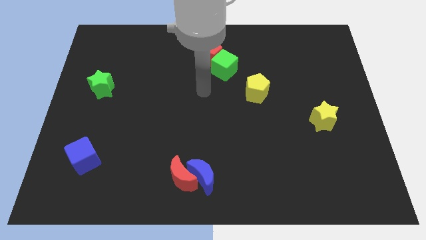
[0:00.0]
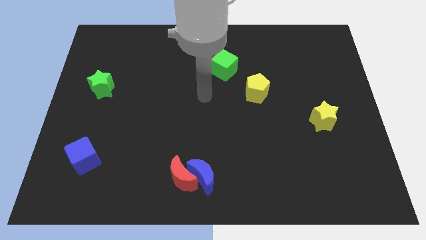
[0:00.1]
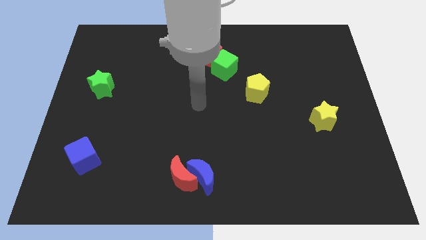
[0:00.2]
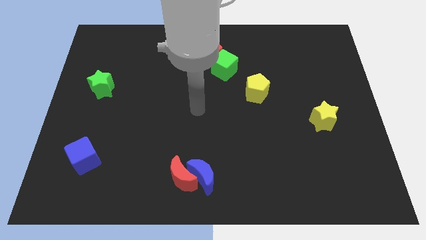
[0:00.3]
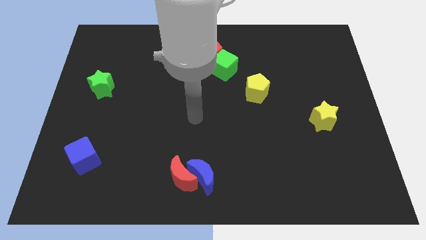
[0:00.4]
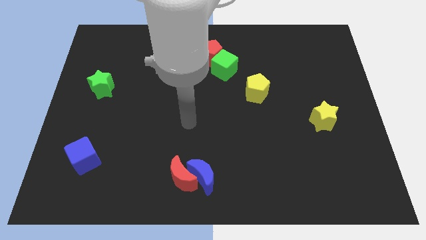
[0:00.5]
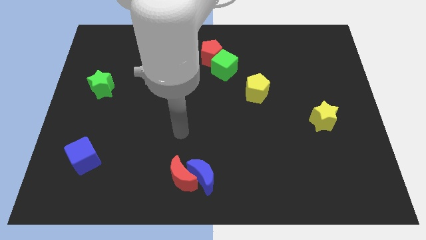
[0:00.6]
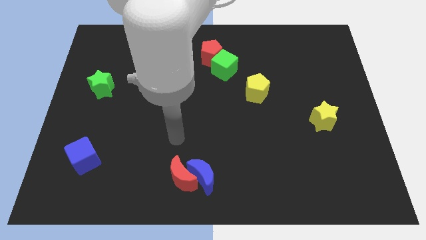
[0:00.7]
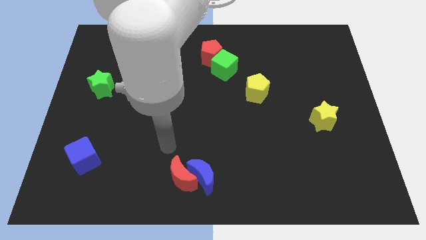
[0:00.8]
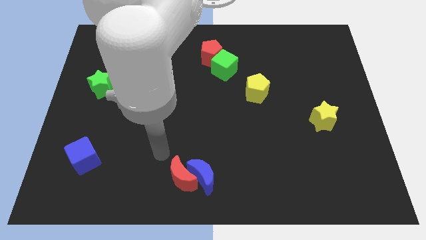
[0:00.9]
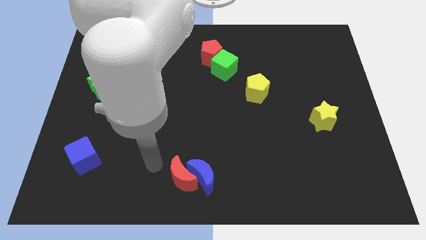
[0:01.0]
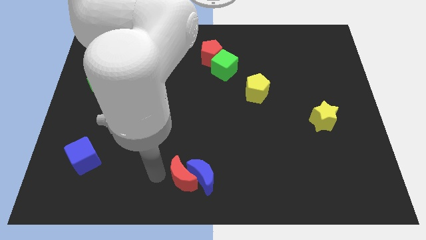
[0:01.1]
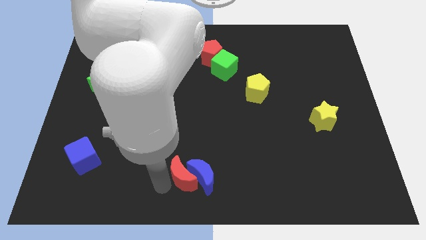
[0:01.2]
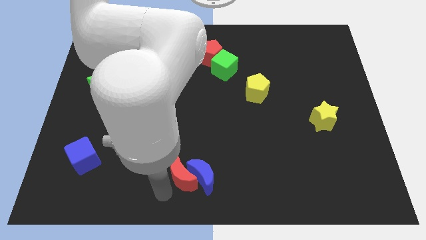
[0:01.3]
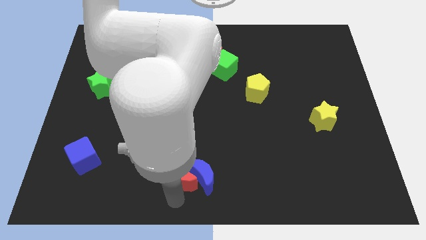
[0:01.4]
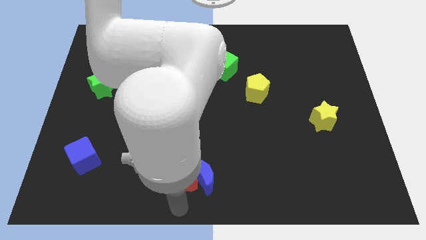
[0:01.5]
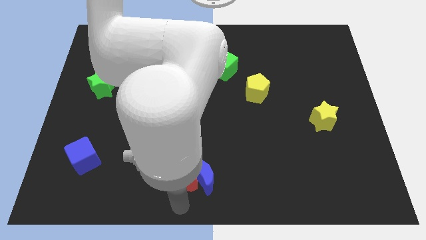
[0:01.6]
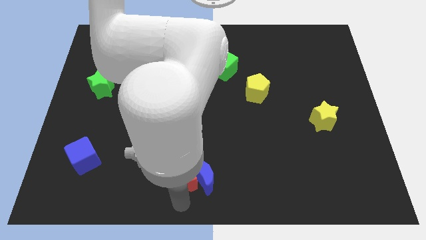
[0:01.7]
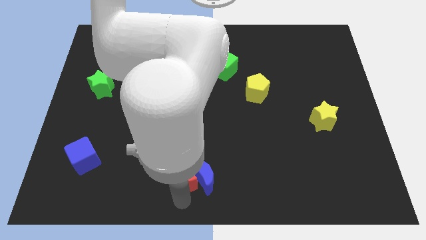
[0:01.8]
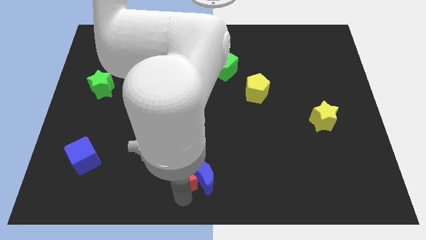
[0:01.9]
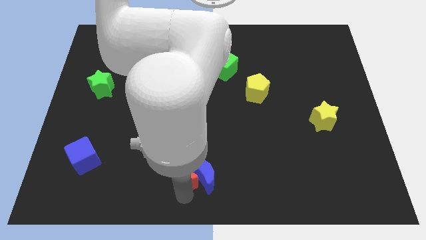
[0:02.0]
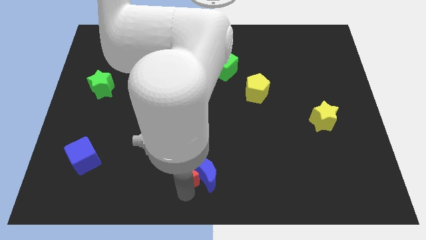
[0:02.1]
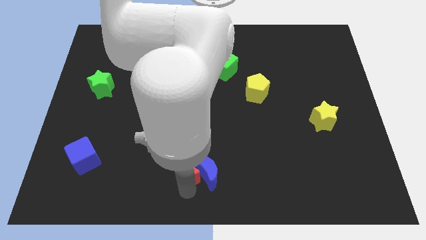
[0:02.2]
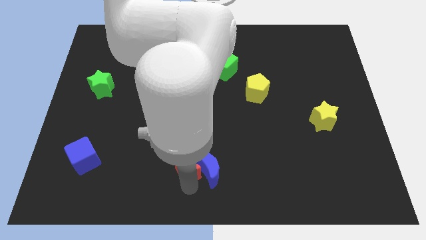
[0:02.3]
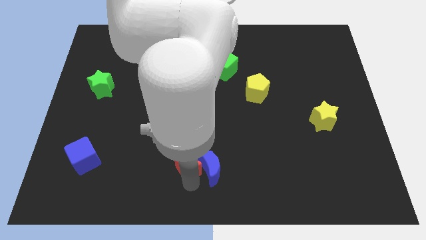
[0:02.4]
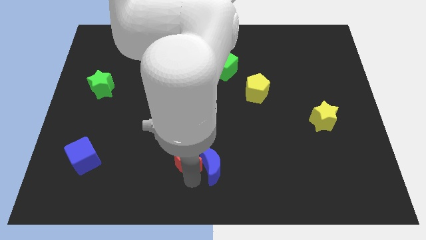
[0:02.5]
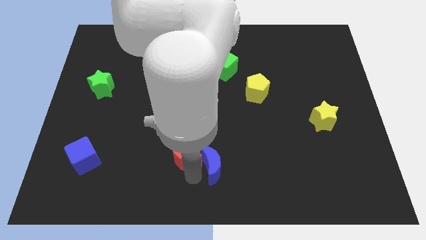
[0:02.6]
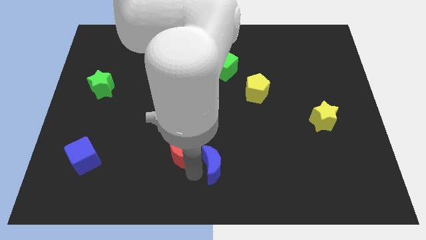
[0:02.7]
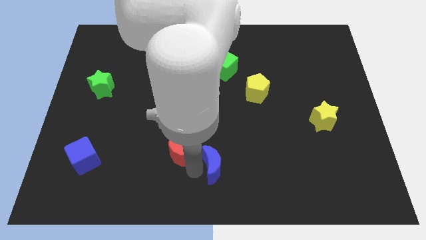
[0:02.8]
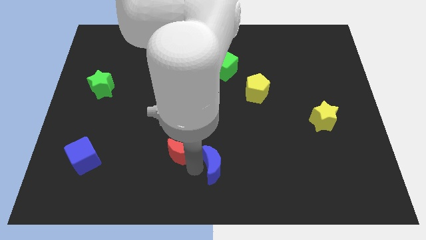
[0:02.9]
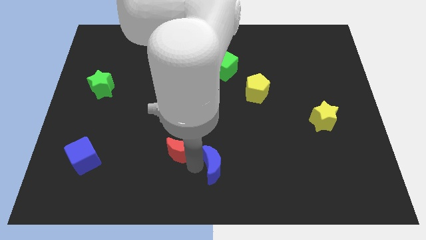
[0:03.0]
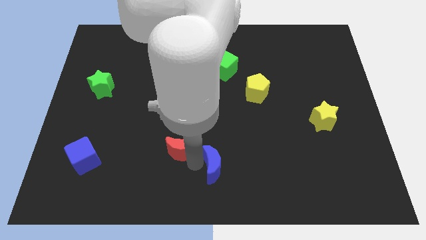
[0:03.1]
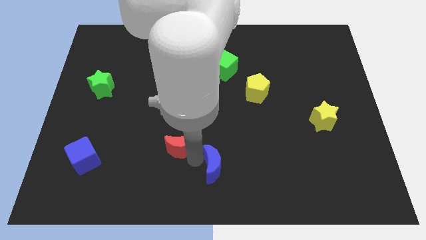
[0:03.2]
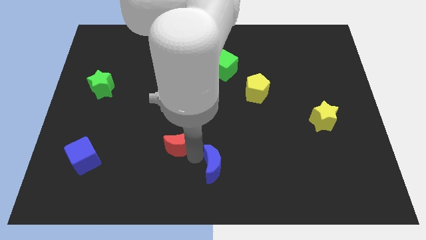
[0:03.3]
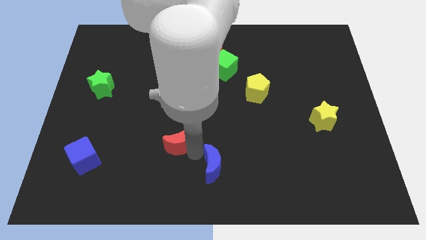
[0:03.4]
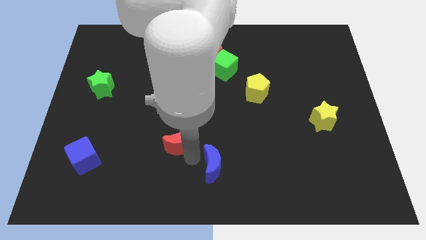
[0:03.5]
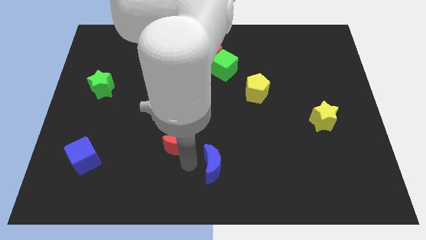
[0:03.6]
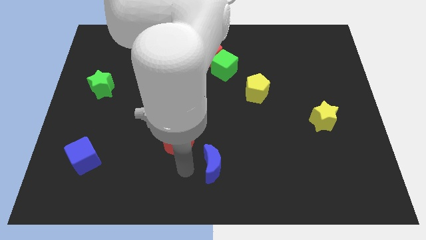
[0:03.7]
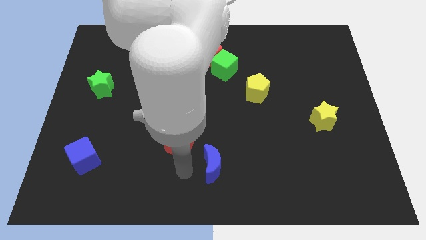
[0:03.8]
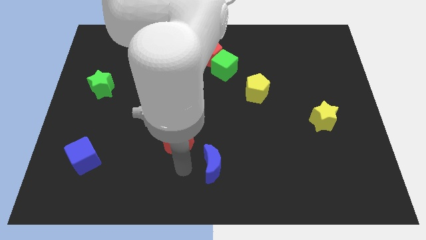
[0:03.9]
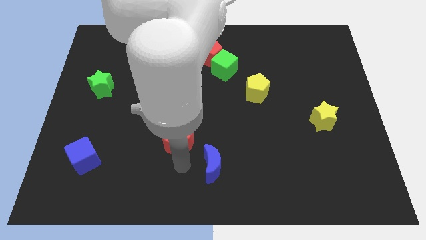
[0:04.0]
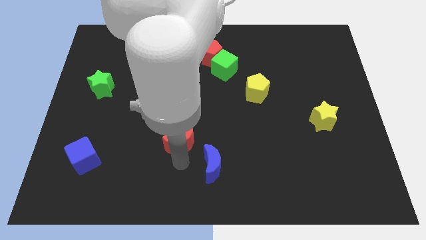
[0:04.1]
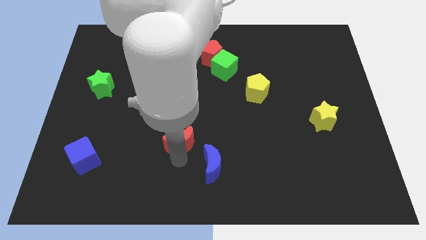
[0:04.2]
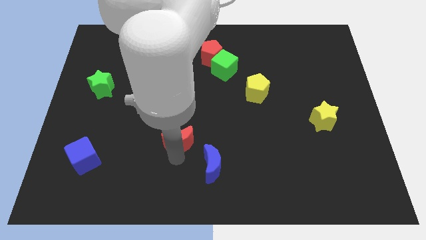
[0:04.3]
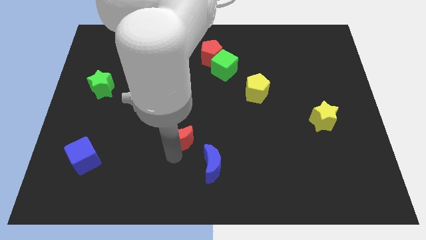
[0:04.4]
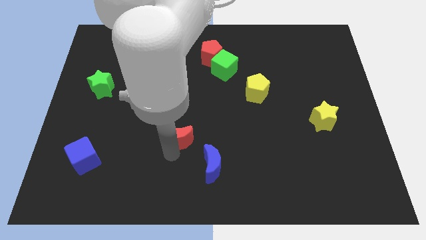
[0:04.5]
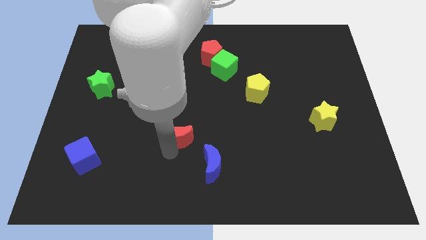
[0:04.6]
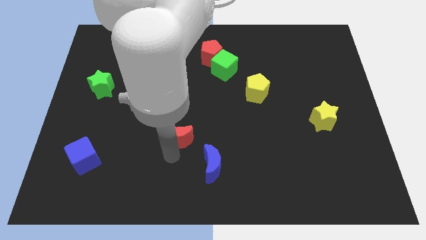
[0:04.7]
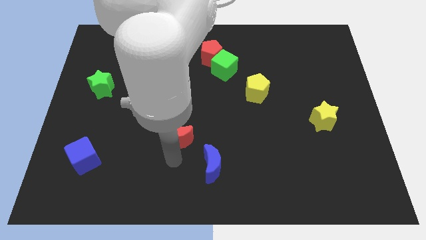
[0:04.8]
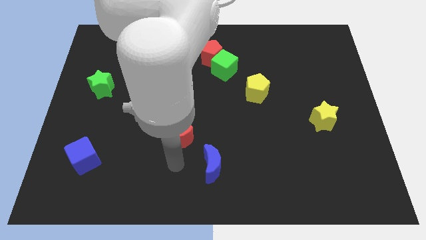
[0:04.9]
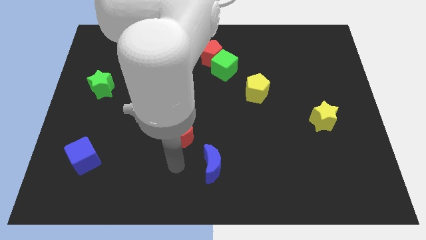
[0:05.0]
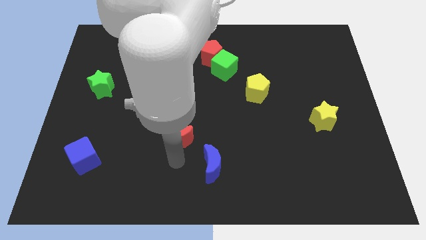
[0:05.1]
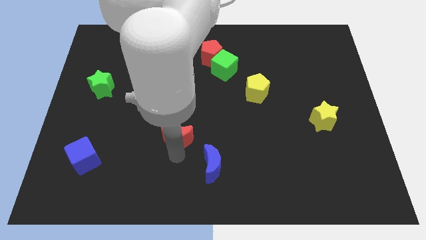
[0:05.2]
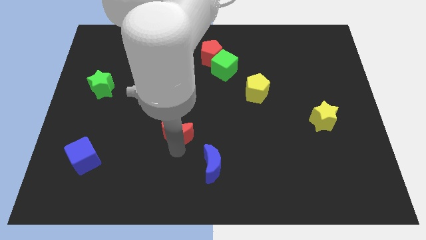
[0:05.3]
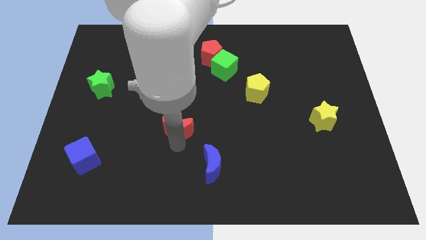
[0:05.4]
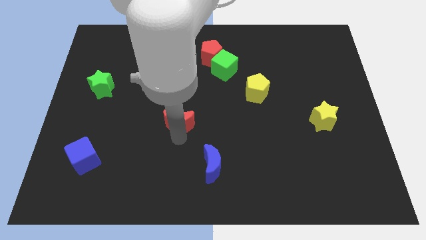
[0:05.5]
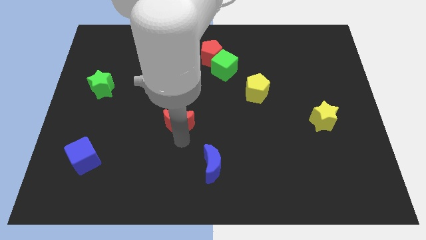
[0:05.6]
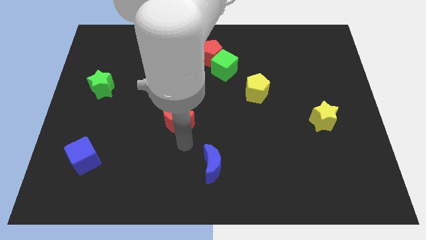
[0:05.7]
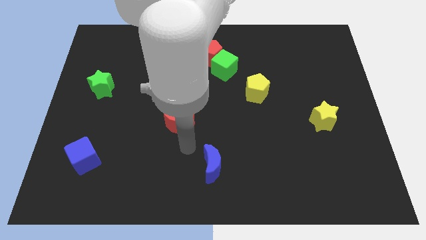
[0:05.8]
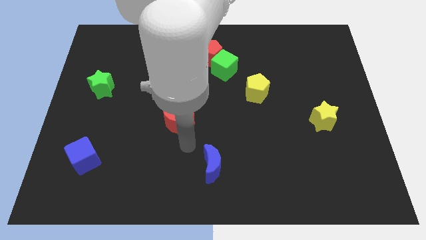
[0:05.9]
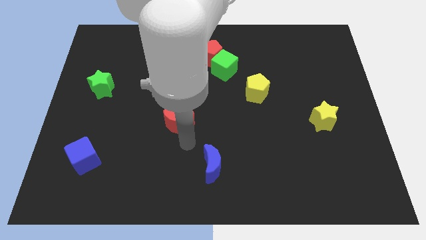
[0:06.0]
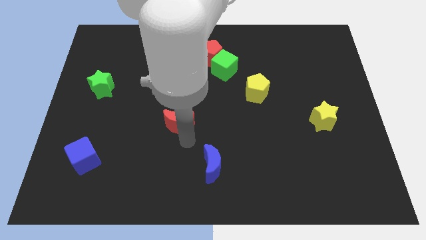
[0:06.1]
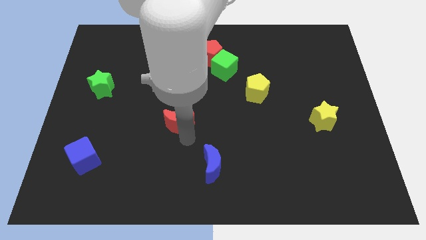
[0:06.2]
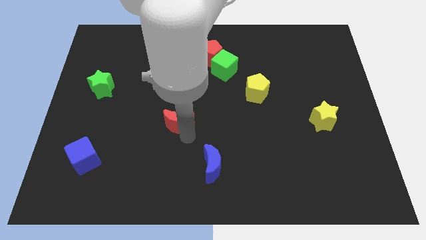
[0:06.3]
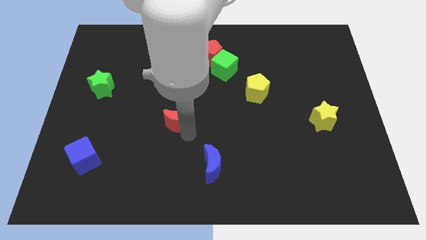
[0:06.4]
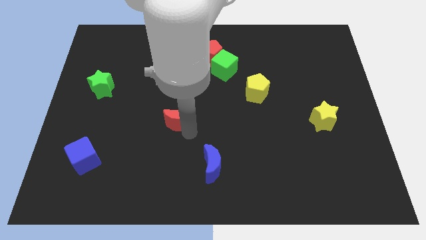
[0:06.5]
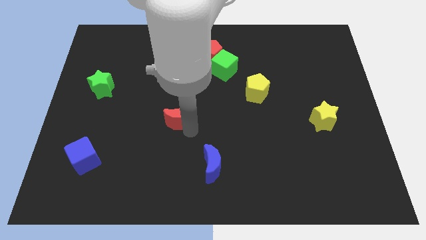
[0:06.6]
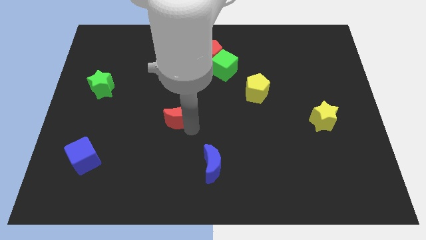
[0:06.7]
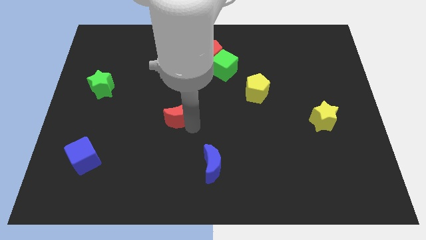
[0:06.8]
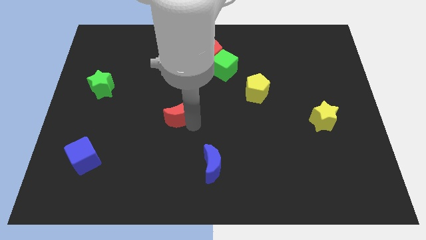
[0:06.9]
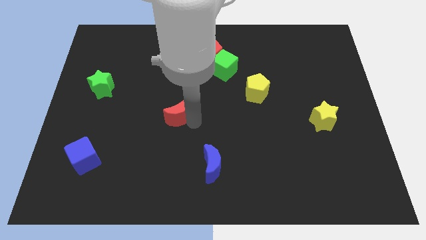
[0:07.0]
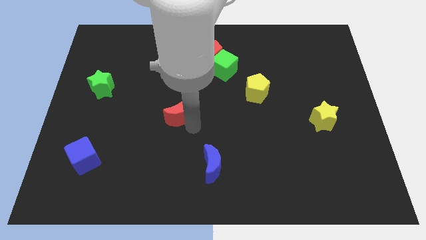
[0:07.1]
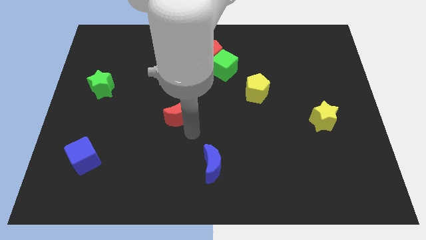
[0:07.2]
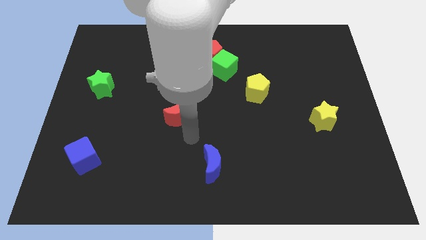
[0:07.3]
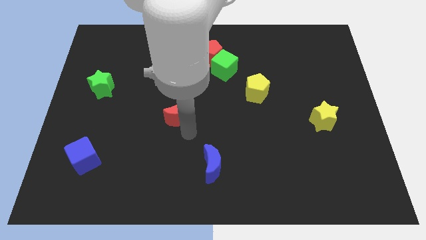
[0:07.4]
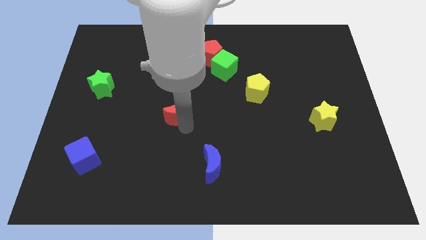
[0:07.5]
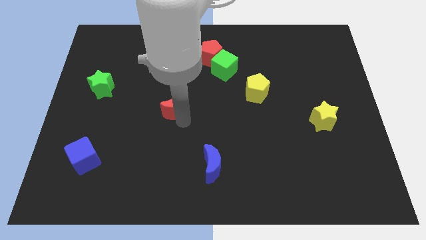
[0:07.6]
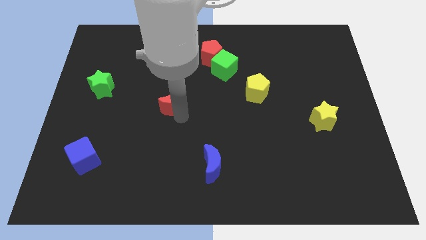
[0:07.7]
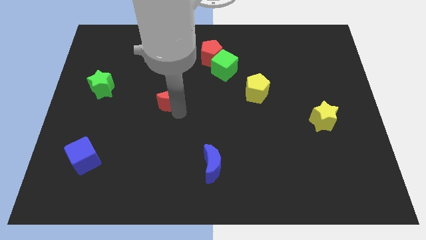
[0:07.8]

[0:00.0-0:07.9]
move the red moon up
